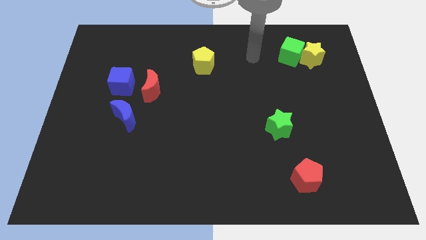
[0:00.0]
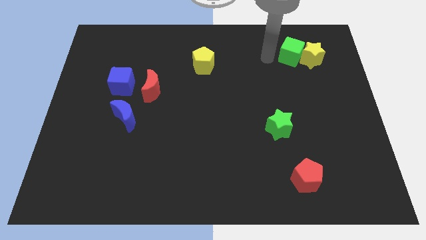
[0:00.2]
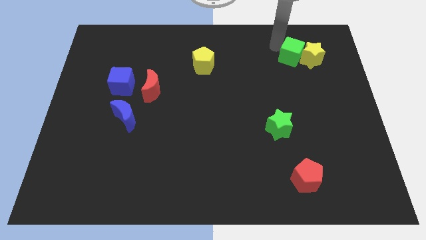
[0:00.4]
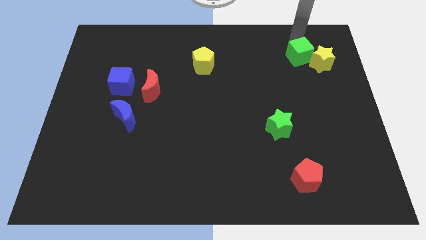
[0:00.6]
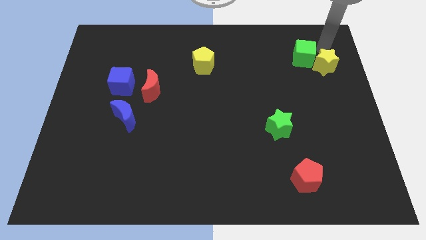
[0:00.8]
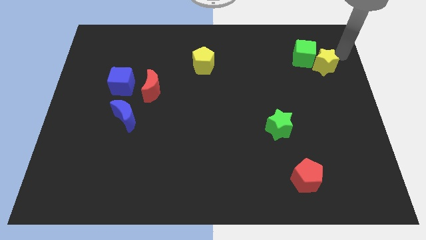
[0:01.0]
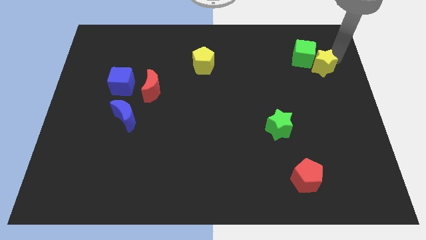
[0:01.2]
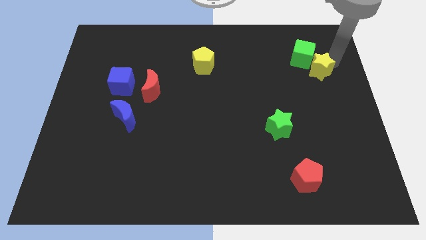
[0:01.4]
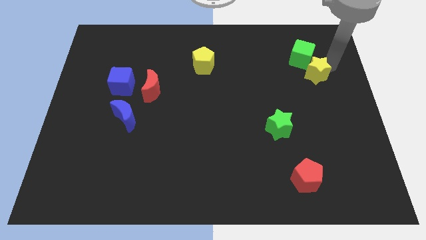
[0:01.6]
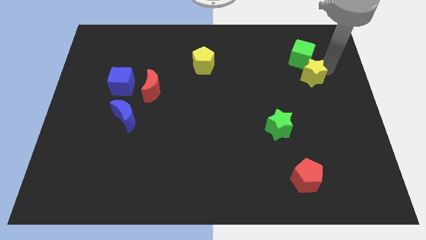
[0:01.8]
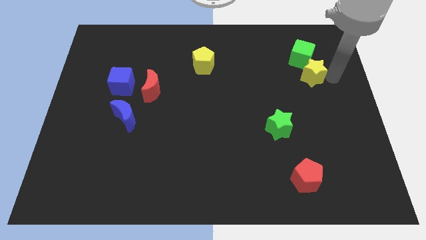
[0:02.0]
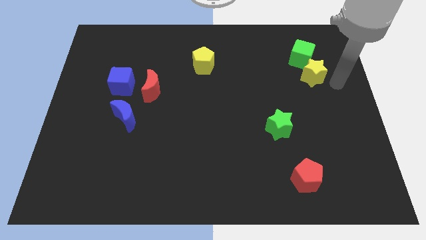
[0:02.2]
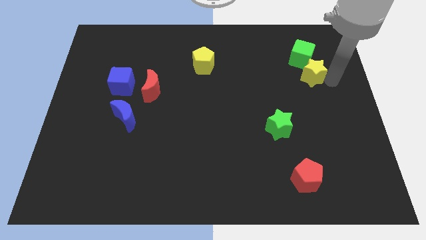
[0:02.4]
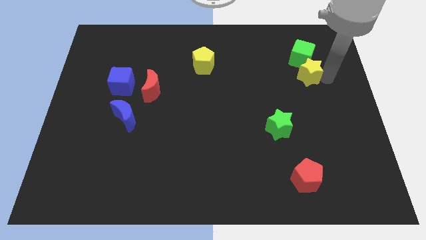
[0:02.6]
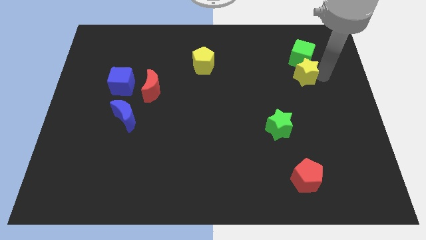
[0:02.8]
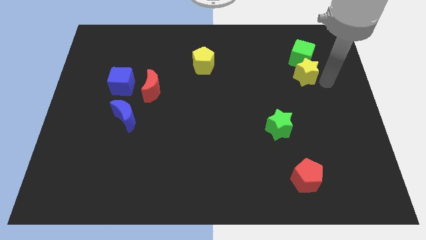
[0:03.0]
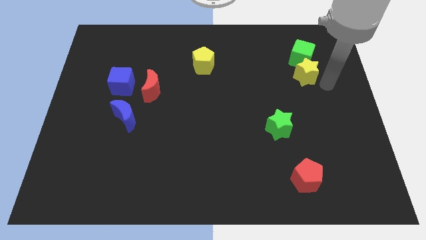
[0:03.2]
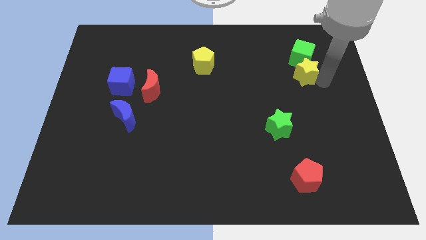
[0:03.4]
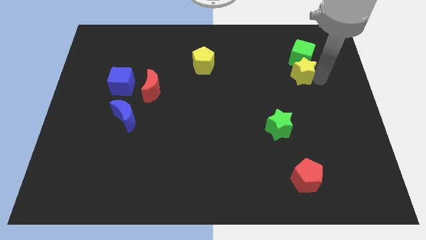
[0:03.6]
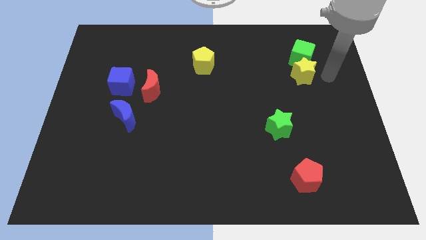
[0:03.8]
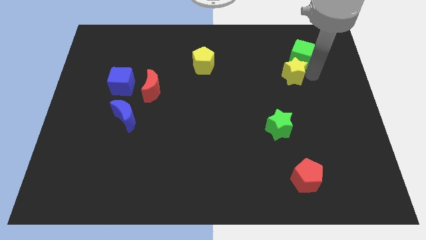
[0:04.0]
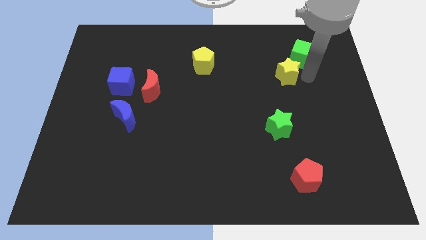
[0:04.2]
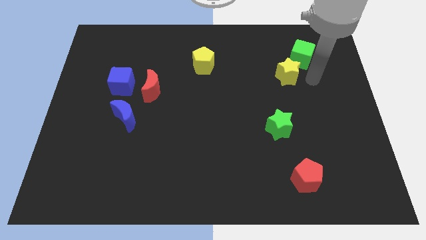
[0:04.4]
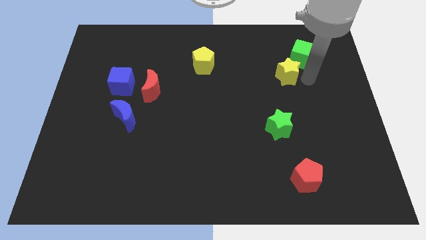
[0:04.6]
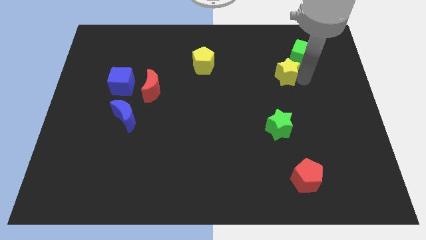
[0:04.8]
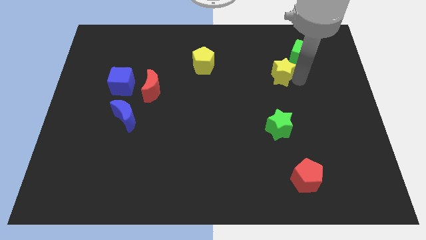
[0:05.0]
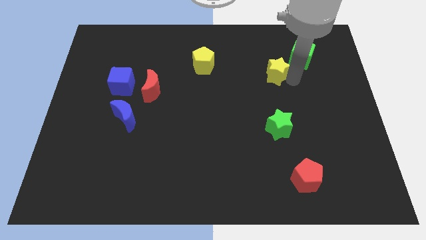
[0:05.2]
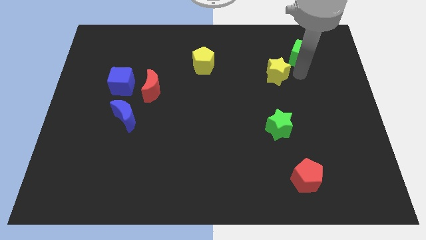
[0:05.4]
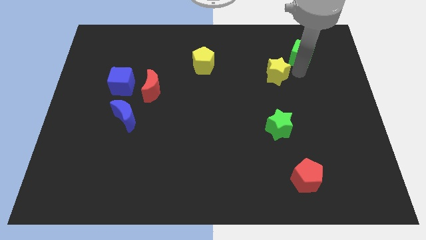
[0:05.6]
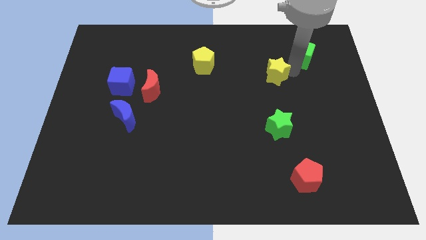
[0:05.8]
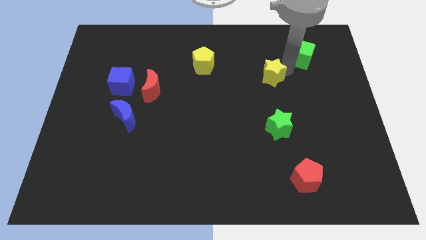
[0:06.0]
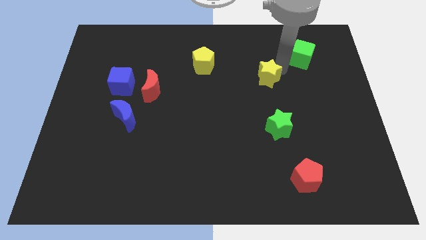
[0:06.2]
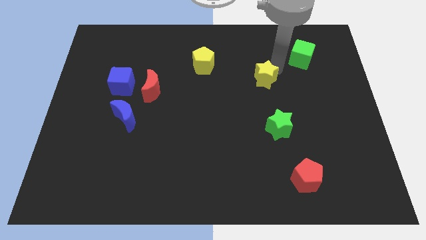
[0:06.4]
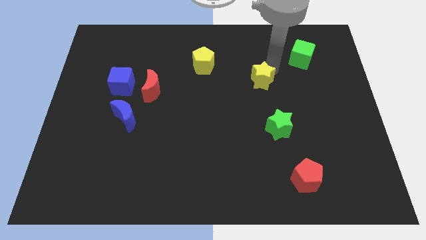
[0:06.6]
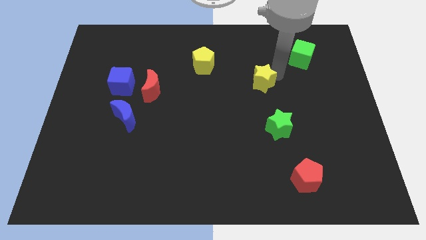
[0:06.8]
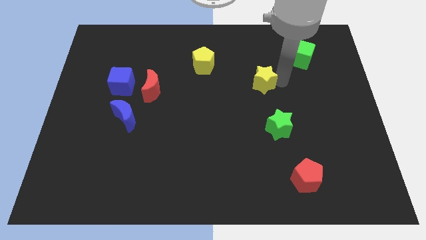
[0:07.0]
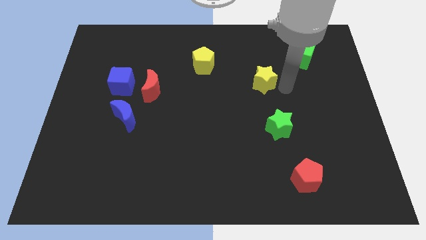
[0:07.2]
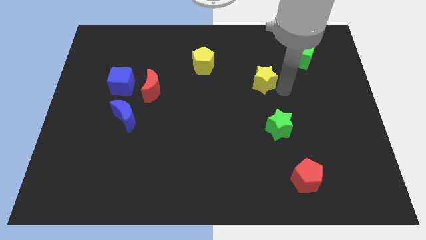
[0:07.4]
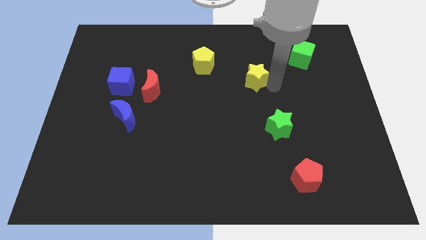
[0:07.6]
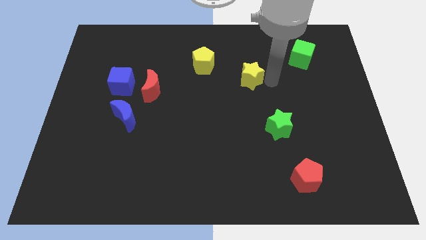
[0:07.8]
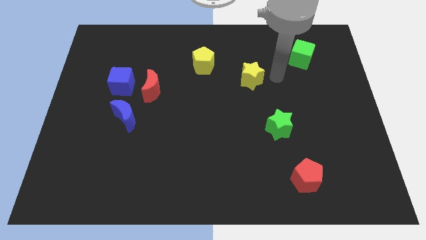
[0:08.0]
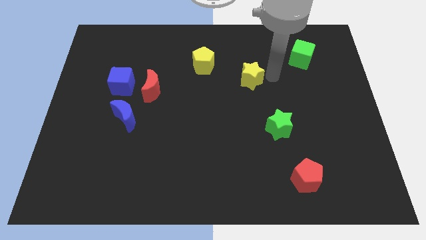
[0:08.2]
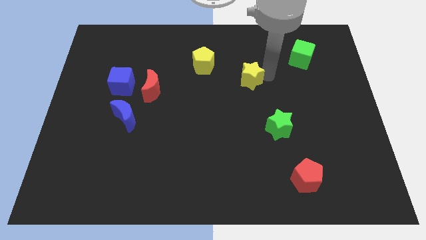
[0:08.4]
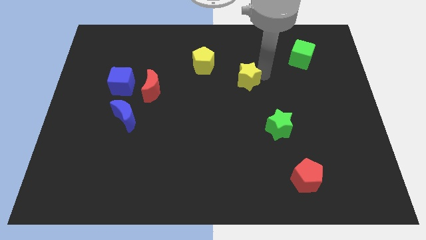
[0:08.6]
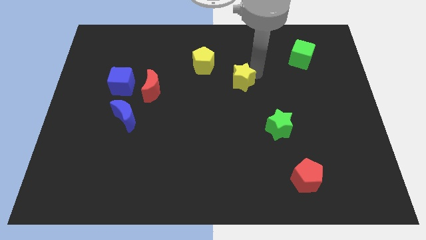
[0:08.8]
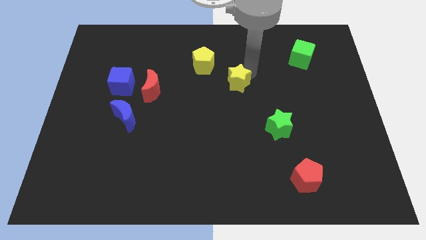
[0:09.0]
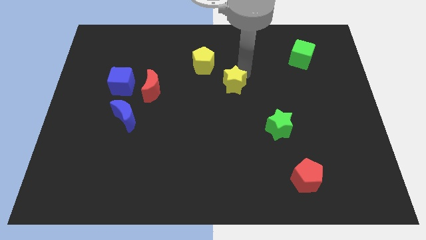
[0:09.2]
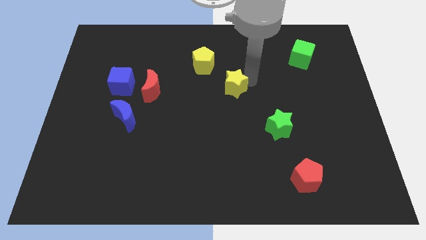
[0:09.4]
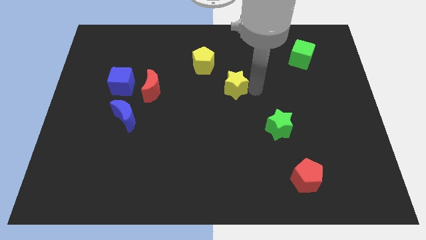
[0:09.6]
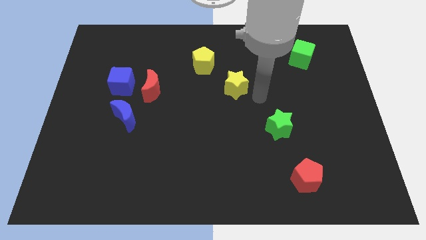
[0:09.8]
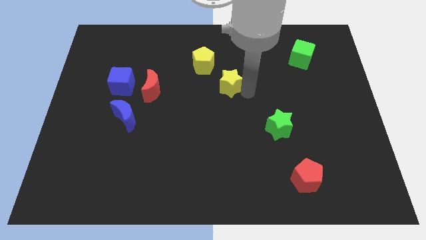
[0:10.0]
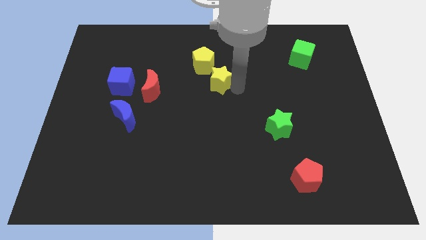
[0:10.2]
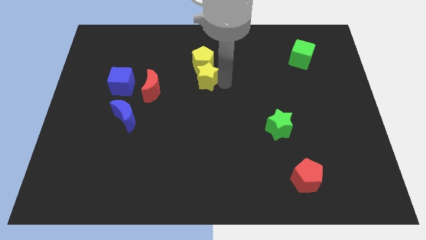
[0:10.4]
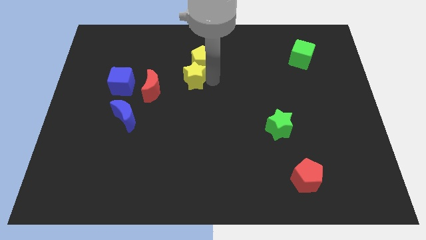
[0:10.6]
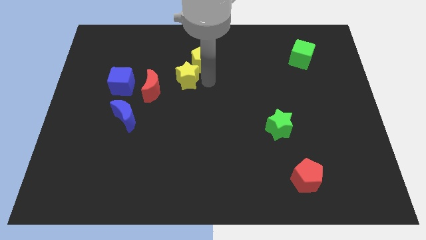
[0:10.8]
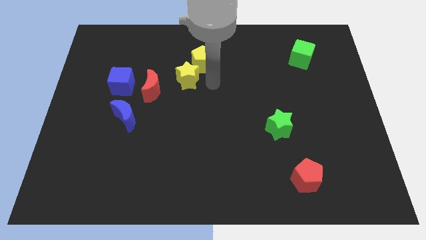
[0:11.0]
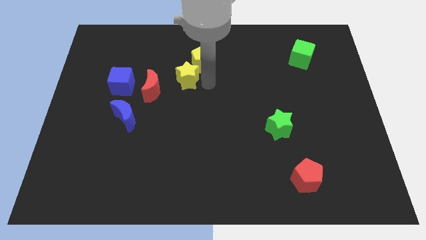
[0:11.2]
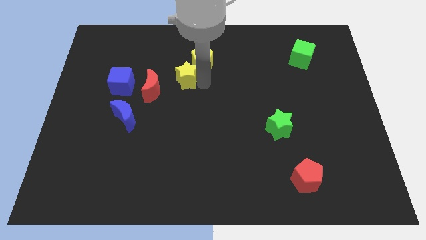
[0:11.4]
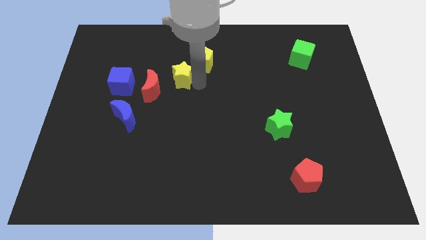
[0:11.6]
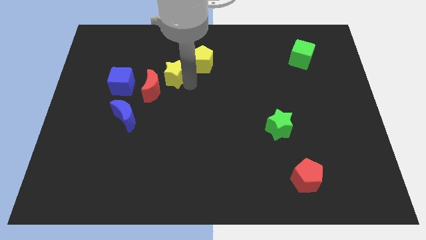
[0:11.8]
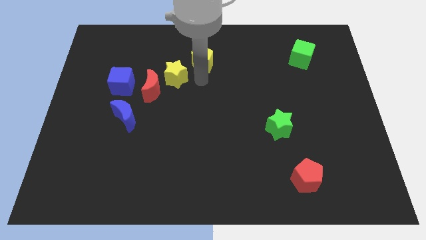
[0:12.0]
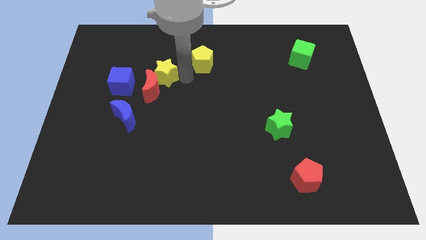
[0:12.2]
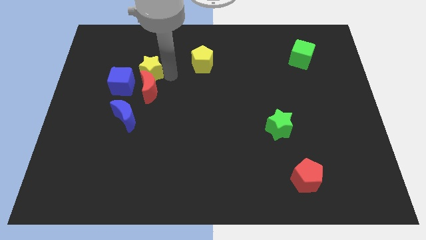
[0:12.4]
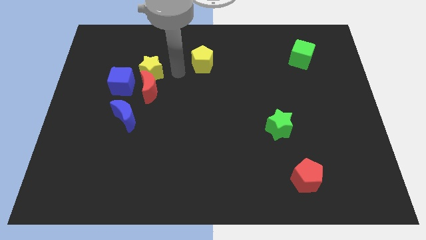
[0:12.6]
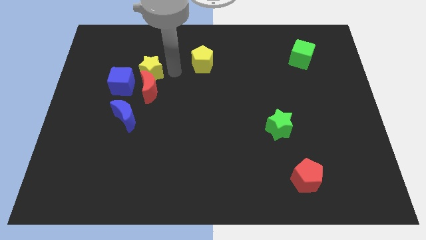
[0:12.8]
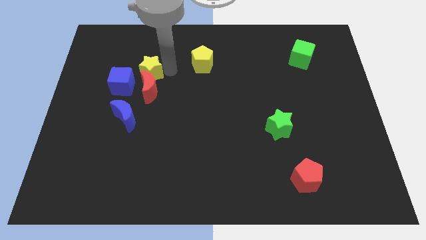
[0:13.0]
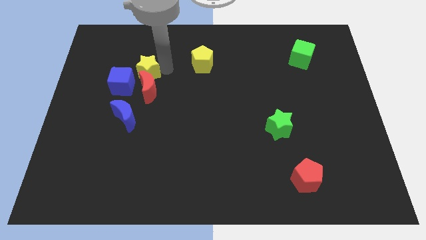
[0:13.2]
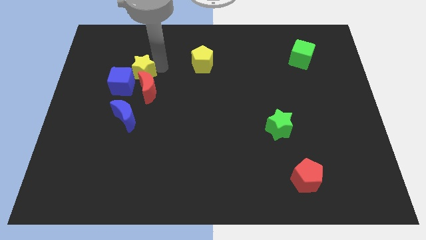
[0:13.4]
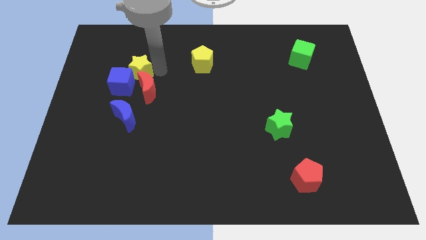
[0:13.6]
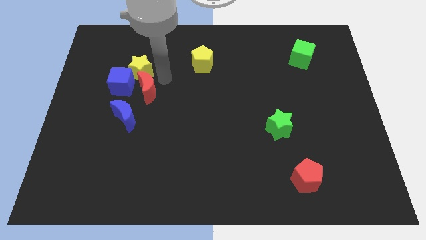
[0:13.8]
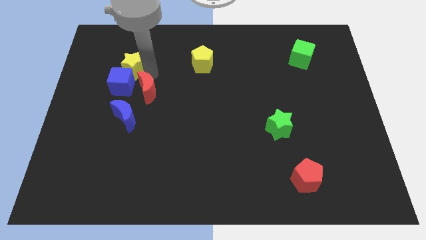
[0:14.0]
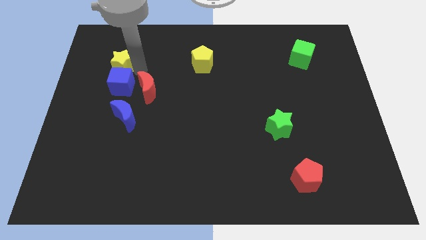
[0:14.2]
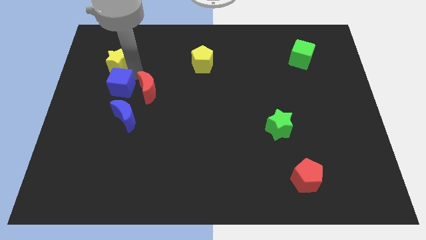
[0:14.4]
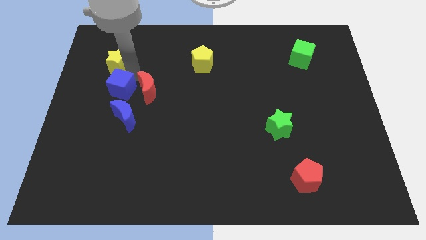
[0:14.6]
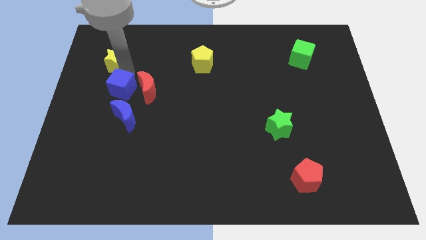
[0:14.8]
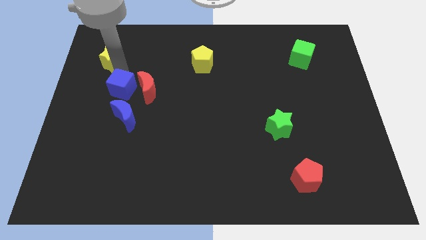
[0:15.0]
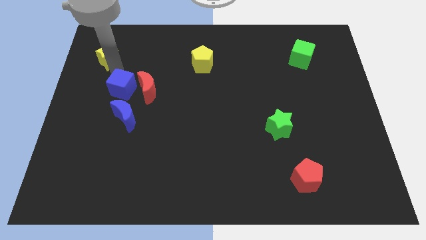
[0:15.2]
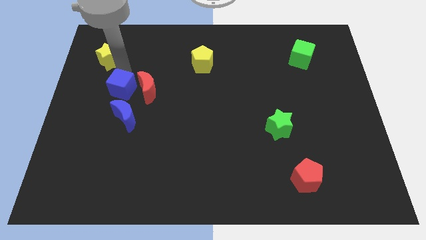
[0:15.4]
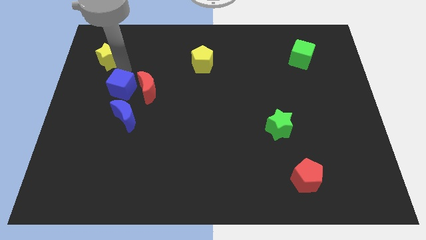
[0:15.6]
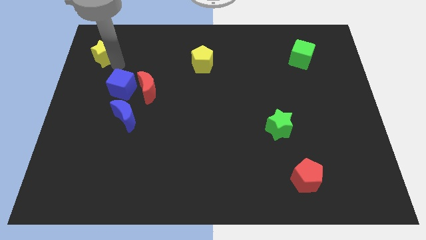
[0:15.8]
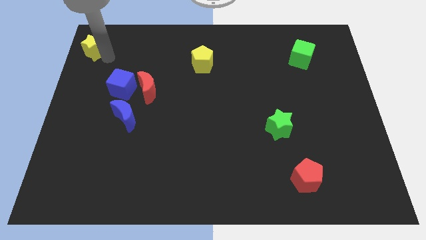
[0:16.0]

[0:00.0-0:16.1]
push the yellow star to the upper left corner
